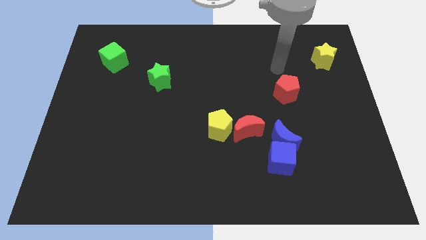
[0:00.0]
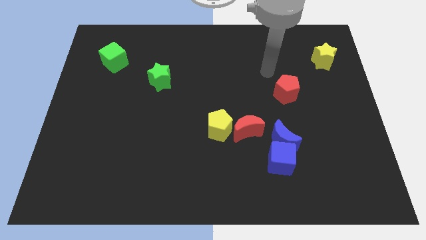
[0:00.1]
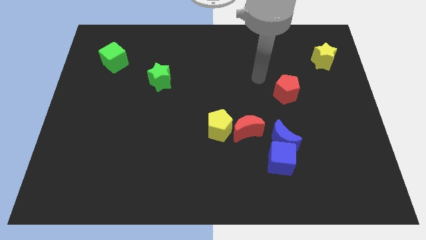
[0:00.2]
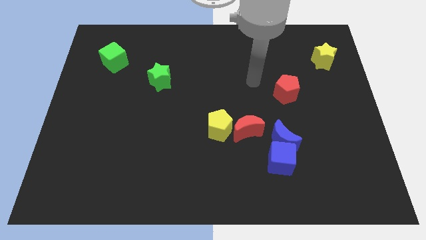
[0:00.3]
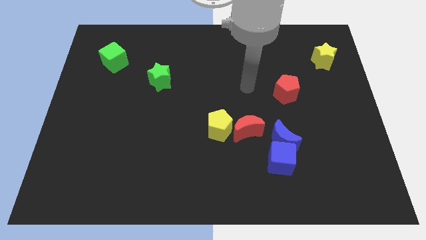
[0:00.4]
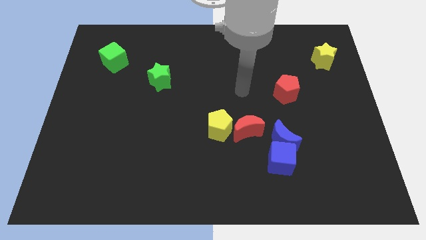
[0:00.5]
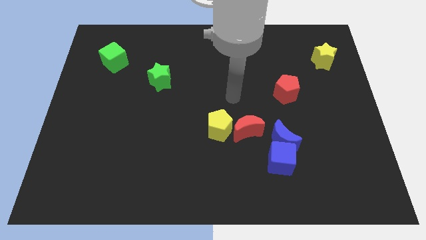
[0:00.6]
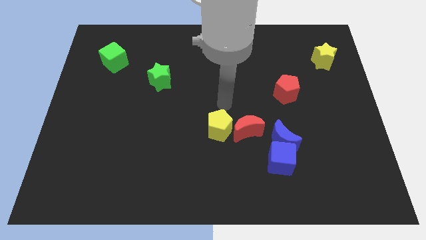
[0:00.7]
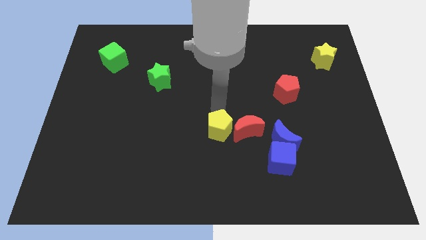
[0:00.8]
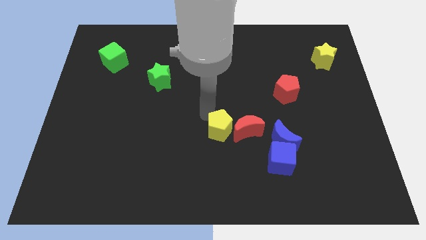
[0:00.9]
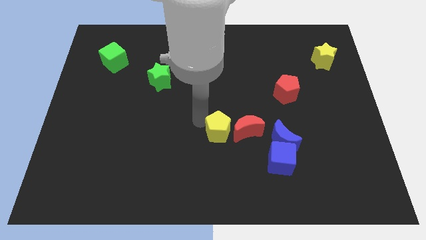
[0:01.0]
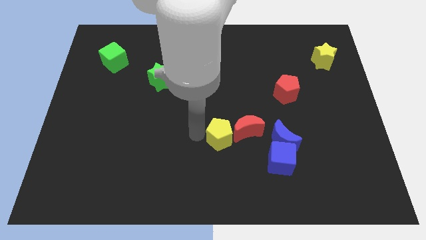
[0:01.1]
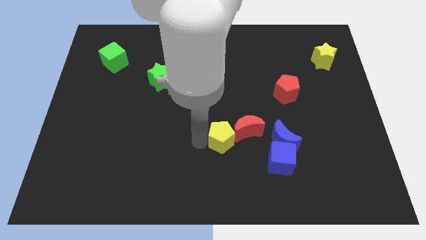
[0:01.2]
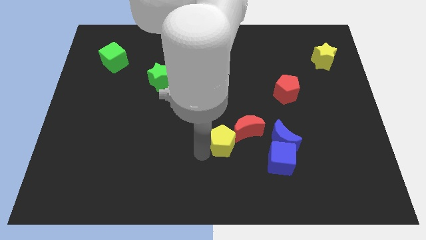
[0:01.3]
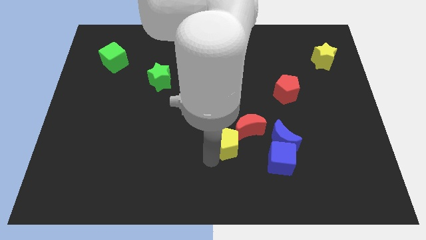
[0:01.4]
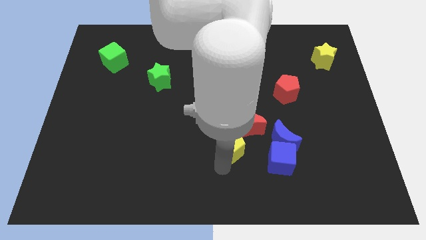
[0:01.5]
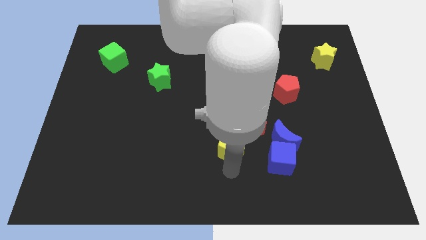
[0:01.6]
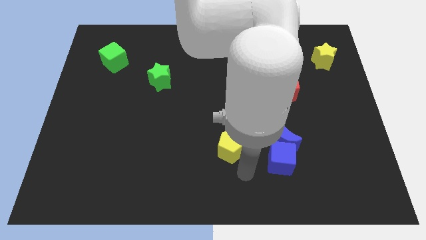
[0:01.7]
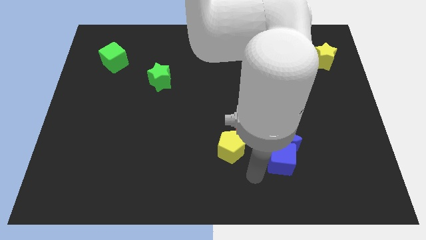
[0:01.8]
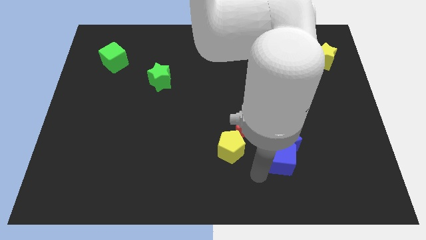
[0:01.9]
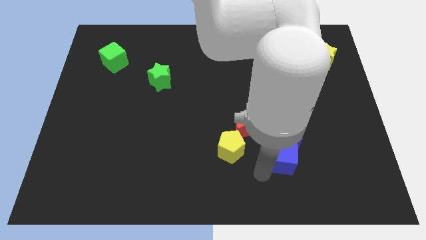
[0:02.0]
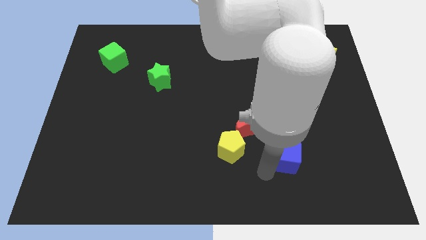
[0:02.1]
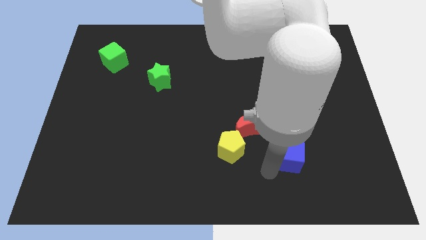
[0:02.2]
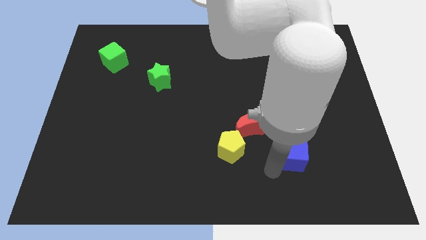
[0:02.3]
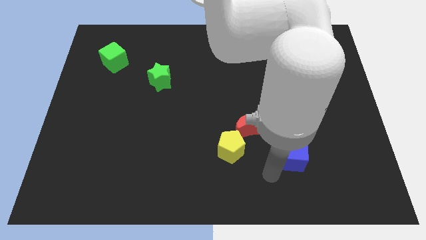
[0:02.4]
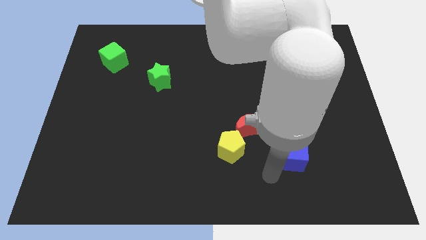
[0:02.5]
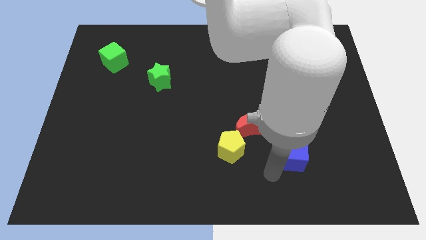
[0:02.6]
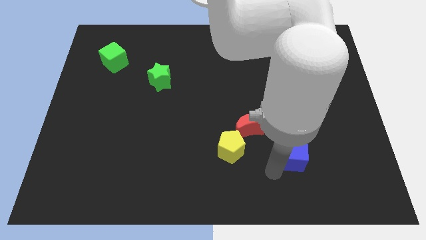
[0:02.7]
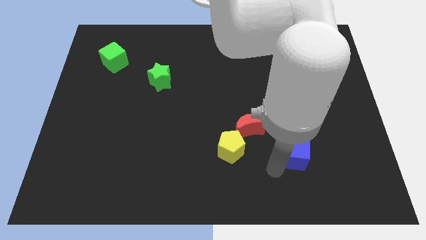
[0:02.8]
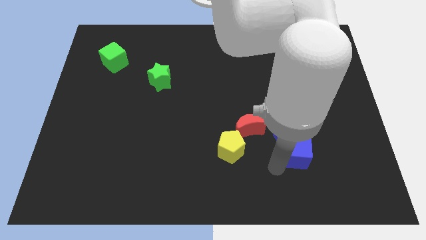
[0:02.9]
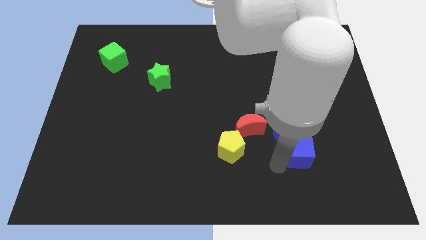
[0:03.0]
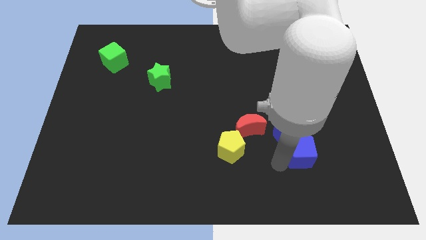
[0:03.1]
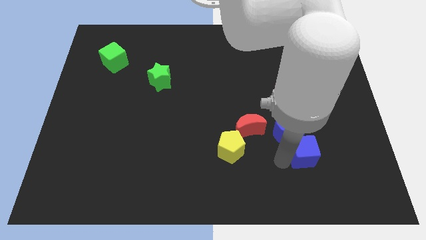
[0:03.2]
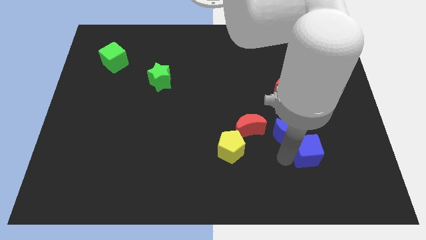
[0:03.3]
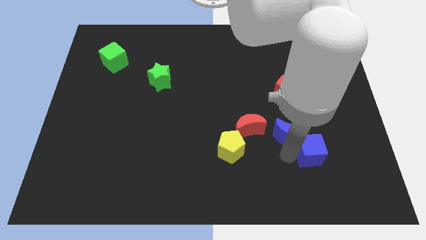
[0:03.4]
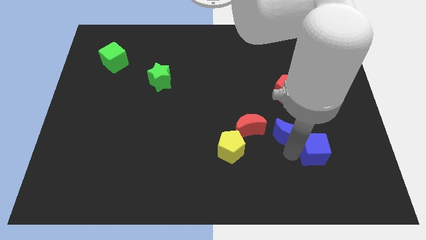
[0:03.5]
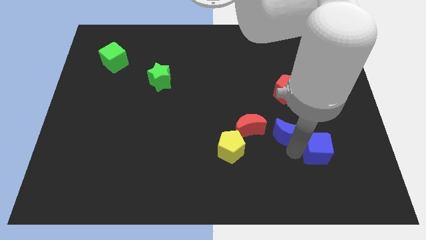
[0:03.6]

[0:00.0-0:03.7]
slightly push the blue cube up and right diagonally

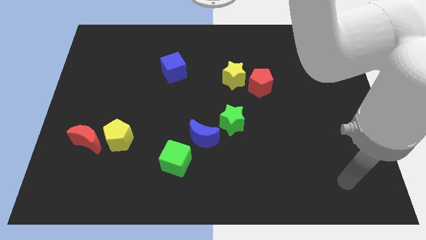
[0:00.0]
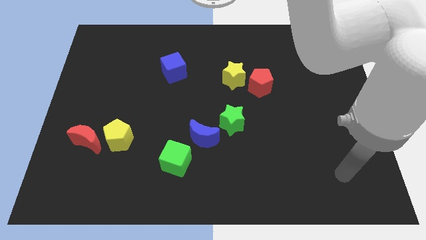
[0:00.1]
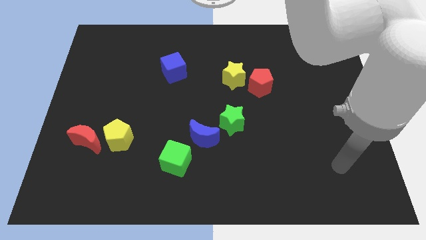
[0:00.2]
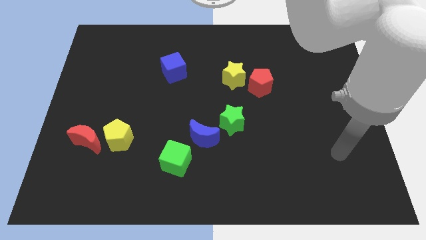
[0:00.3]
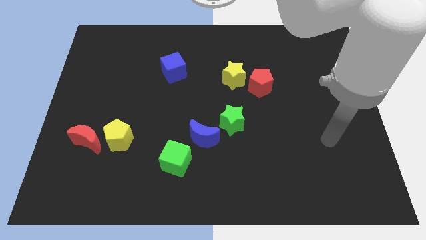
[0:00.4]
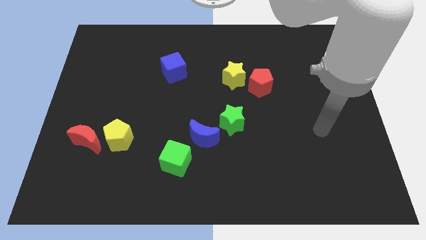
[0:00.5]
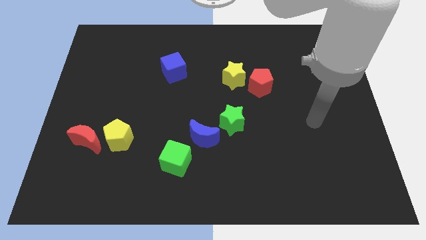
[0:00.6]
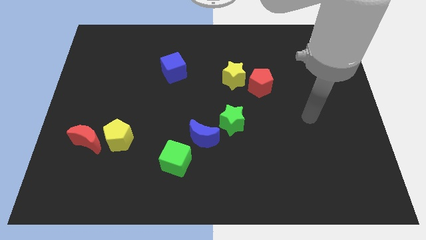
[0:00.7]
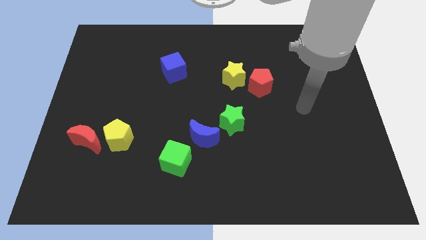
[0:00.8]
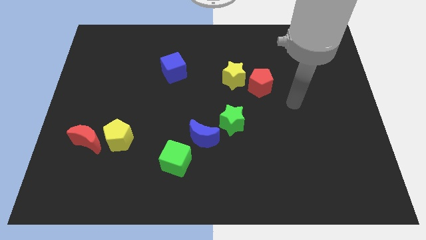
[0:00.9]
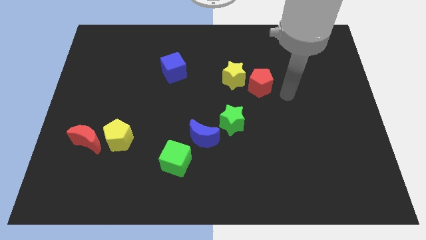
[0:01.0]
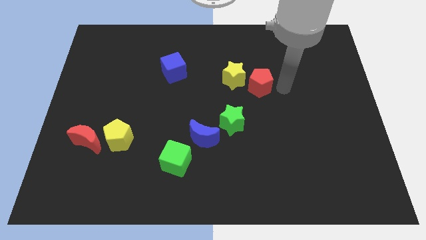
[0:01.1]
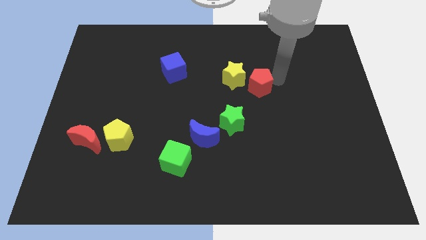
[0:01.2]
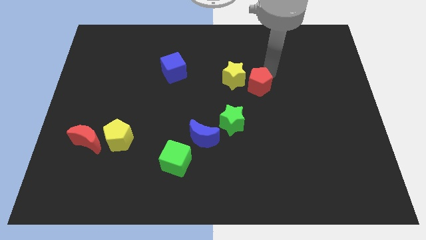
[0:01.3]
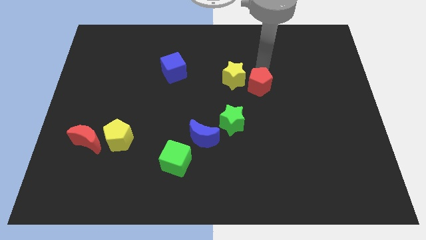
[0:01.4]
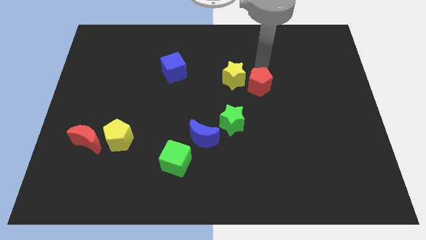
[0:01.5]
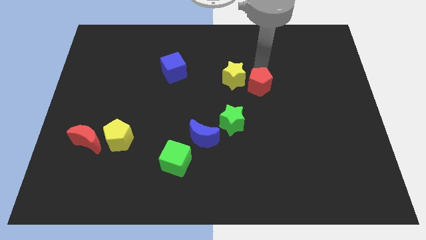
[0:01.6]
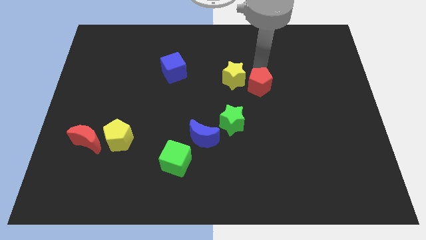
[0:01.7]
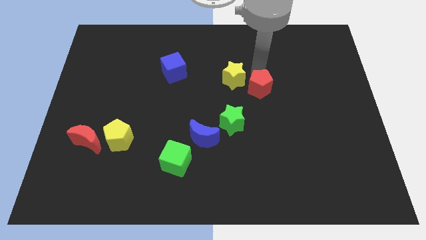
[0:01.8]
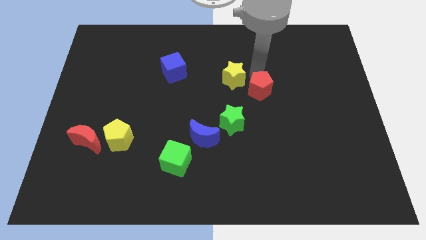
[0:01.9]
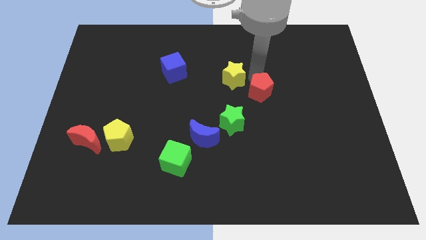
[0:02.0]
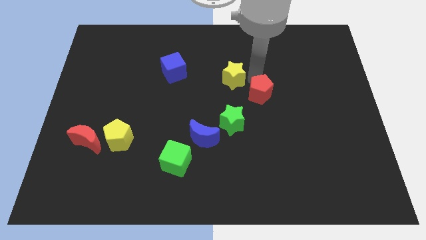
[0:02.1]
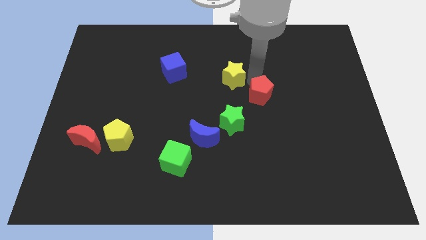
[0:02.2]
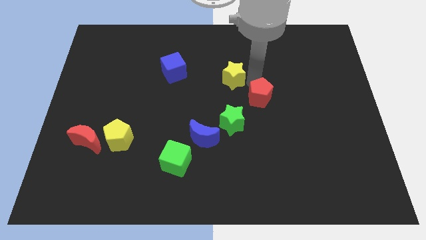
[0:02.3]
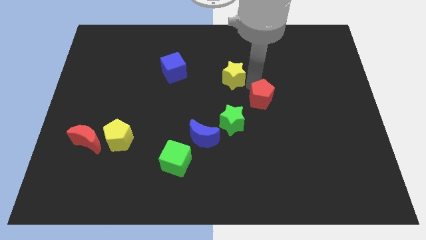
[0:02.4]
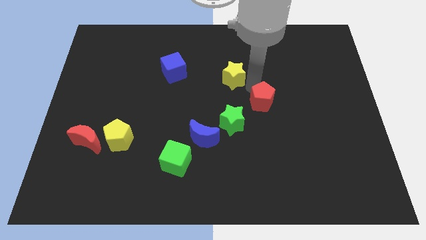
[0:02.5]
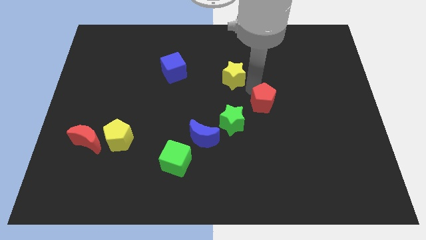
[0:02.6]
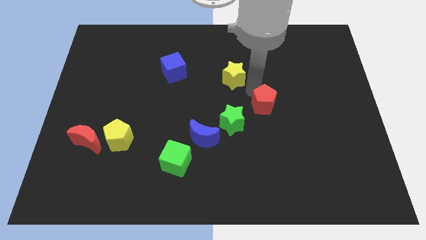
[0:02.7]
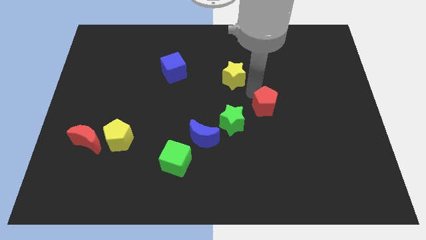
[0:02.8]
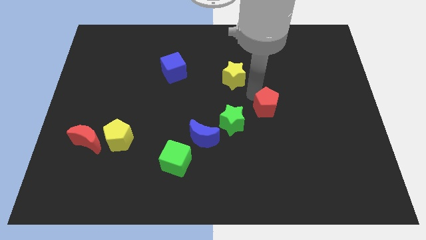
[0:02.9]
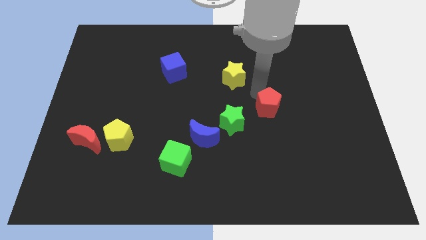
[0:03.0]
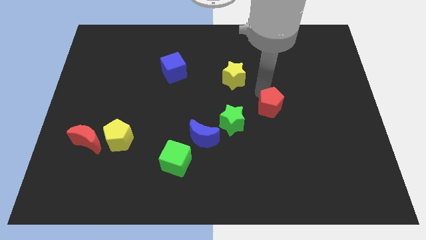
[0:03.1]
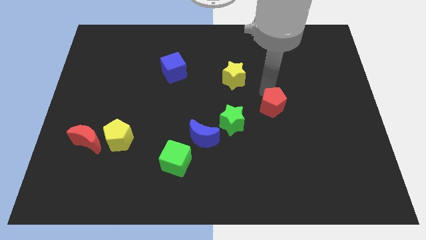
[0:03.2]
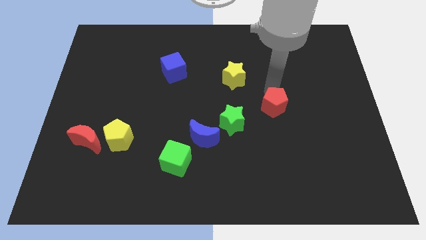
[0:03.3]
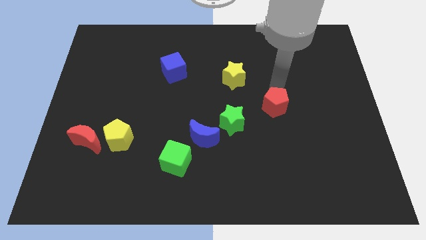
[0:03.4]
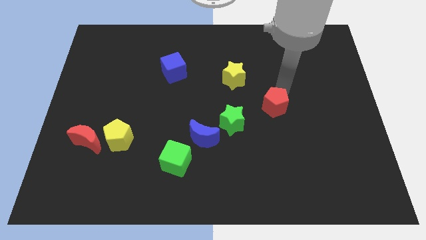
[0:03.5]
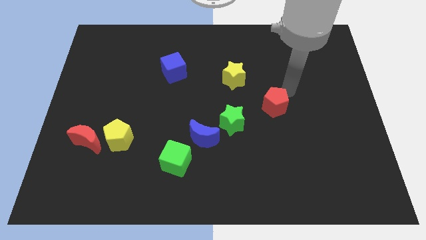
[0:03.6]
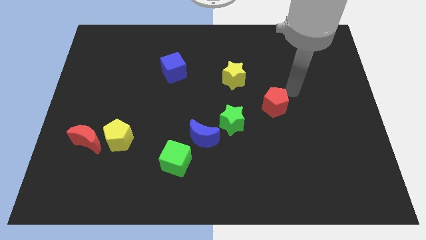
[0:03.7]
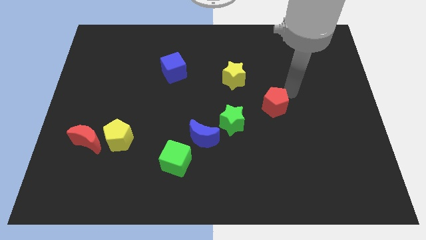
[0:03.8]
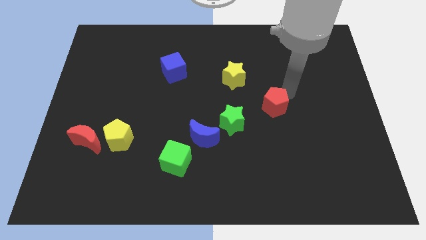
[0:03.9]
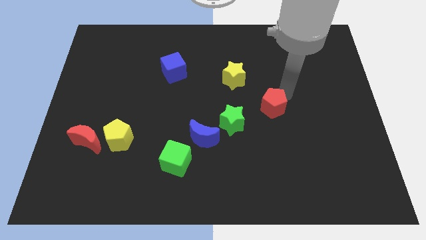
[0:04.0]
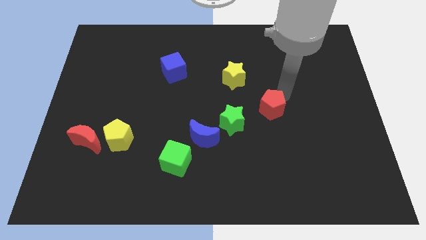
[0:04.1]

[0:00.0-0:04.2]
move the red pentagon a little bit down

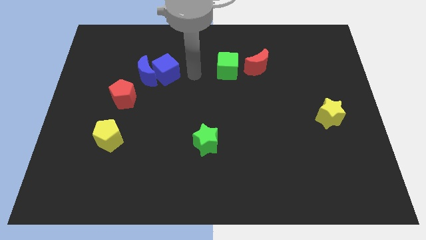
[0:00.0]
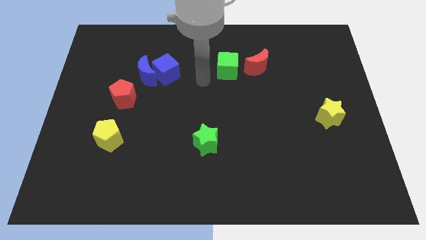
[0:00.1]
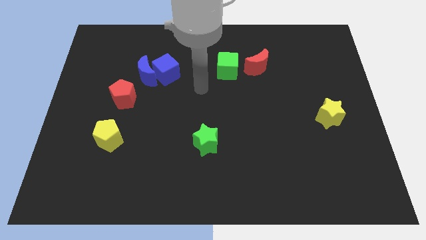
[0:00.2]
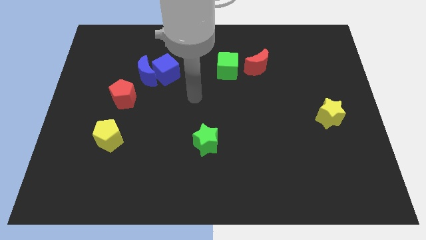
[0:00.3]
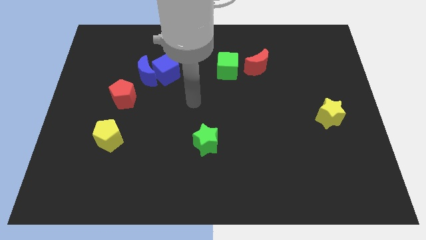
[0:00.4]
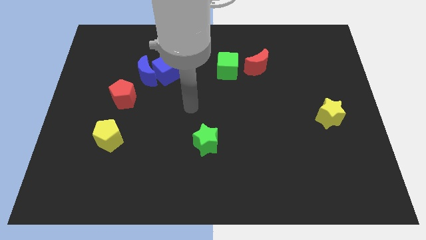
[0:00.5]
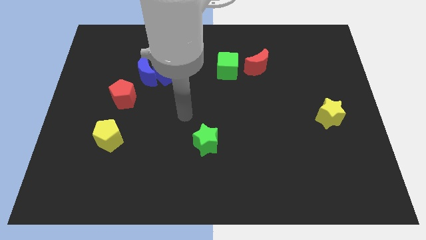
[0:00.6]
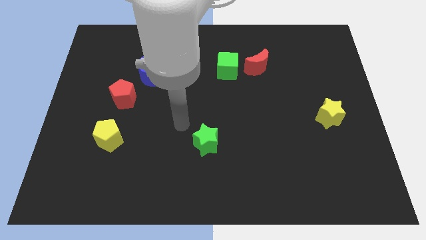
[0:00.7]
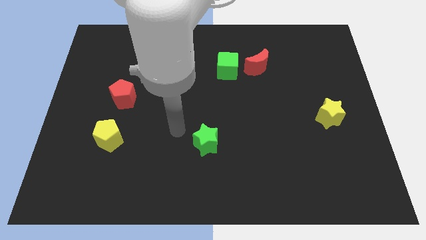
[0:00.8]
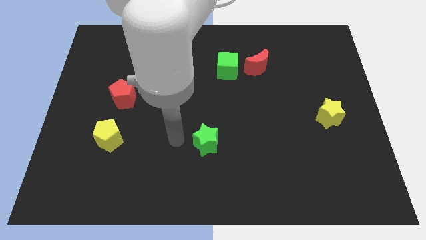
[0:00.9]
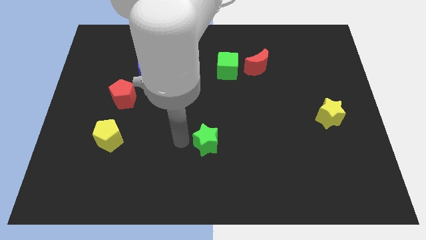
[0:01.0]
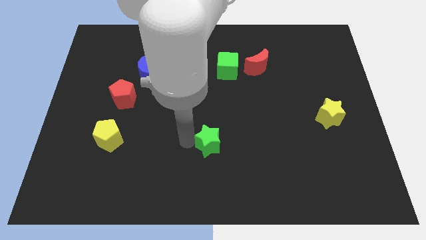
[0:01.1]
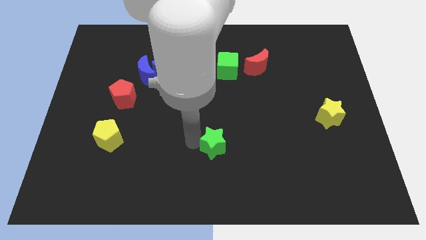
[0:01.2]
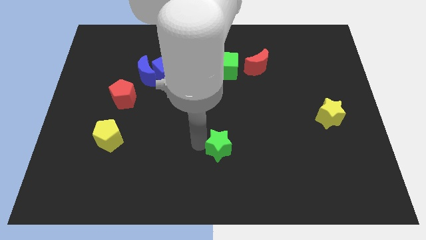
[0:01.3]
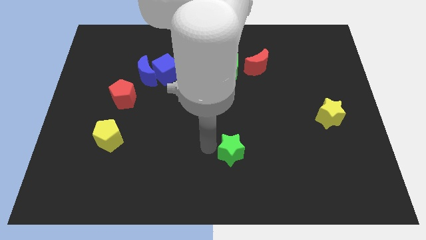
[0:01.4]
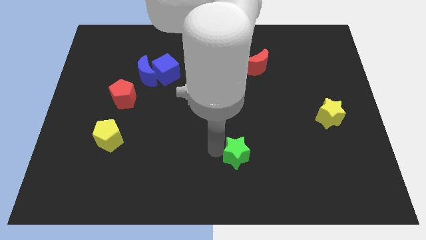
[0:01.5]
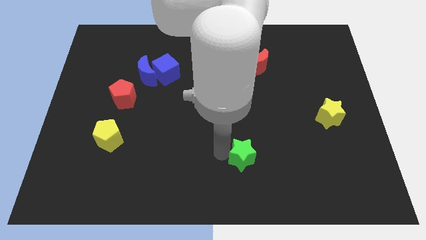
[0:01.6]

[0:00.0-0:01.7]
slightly push the green star right
